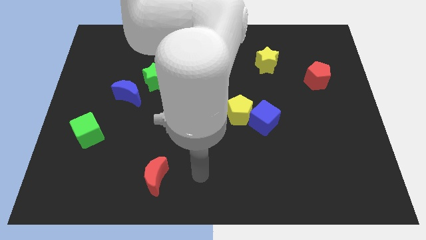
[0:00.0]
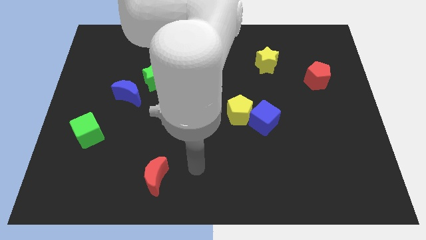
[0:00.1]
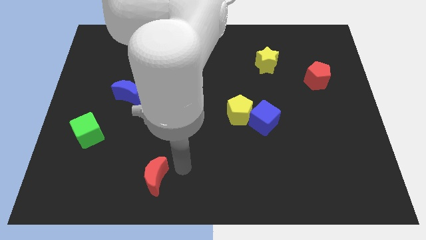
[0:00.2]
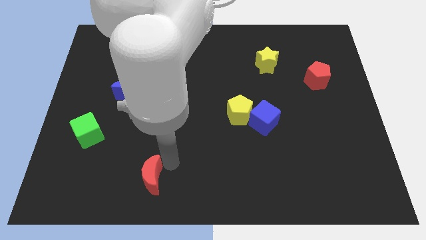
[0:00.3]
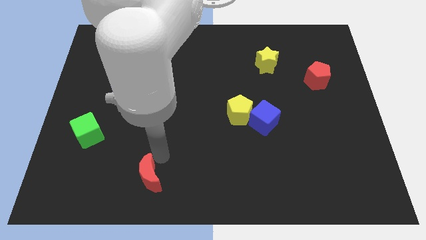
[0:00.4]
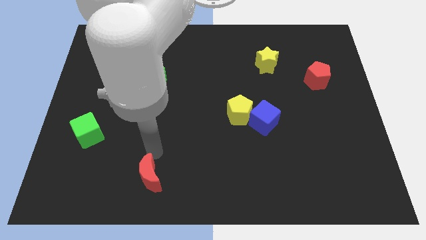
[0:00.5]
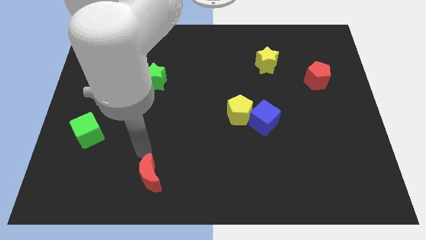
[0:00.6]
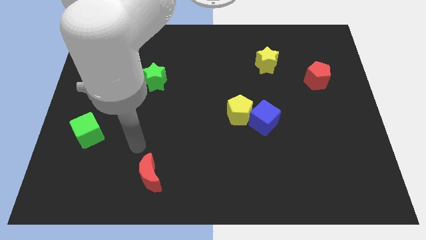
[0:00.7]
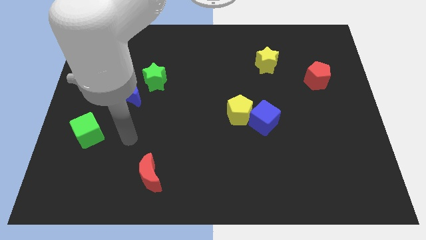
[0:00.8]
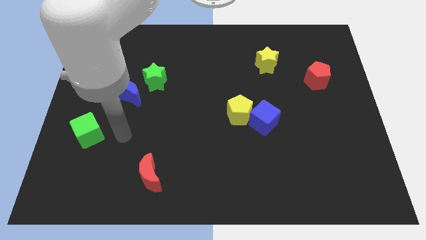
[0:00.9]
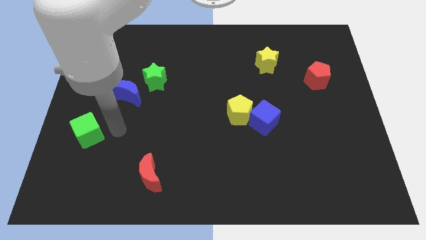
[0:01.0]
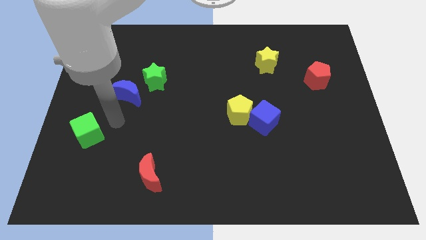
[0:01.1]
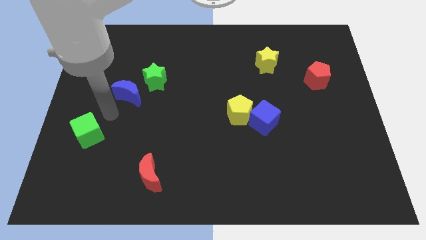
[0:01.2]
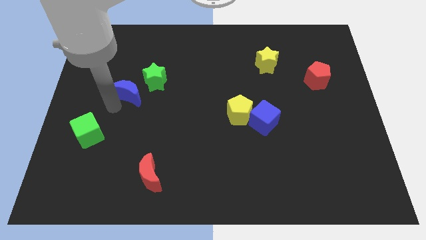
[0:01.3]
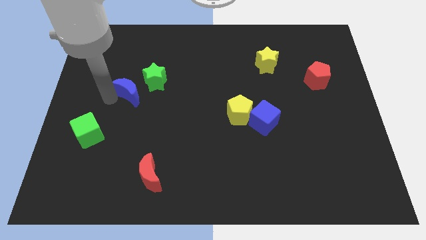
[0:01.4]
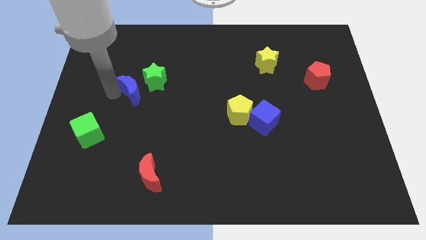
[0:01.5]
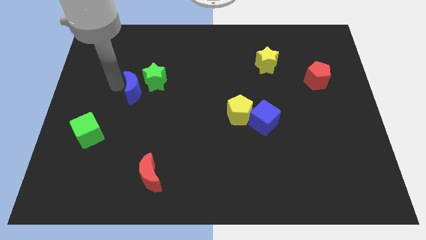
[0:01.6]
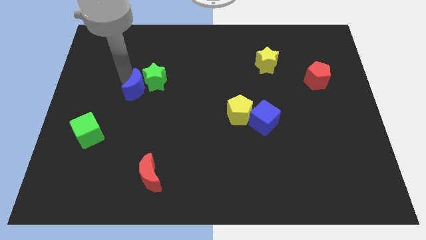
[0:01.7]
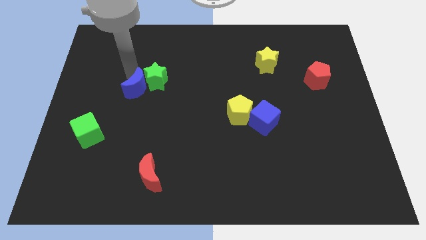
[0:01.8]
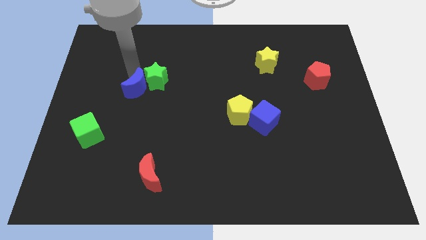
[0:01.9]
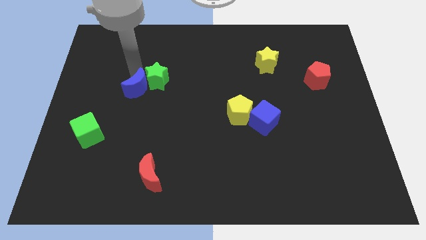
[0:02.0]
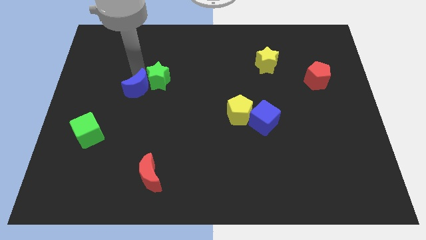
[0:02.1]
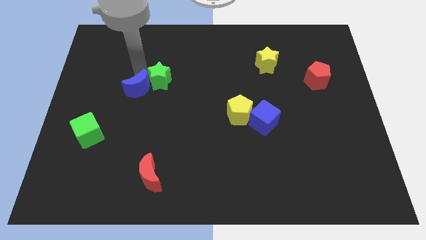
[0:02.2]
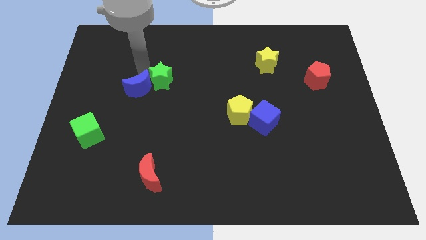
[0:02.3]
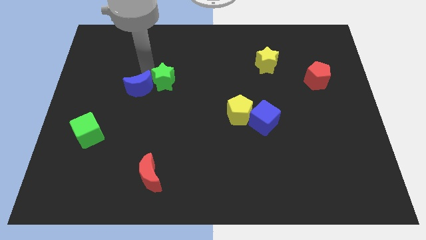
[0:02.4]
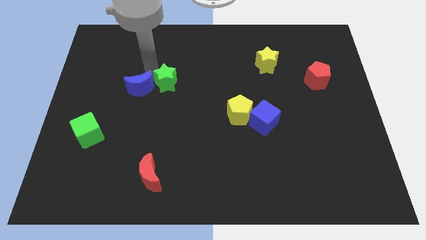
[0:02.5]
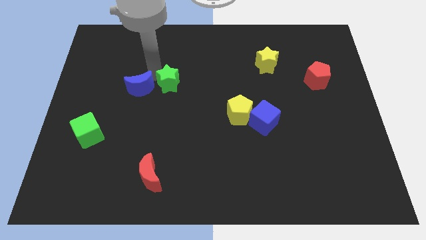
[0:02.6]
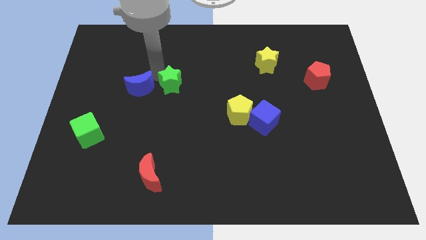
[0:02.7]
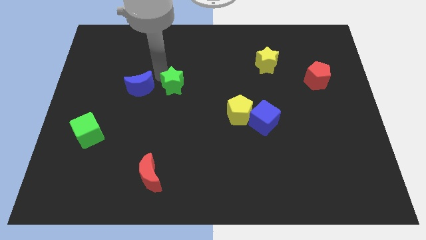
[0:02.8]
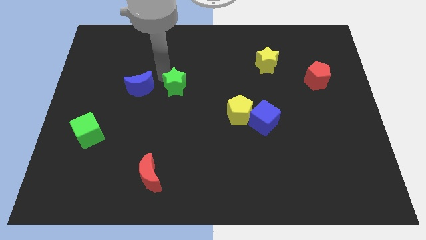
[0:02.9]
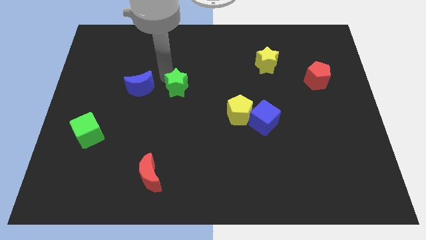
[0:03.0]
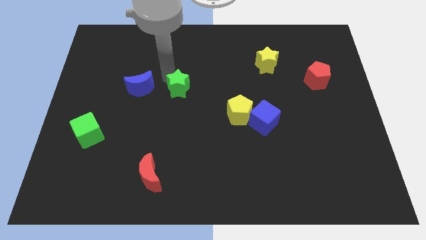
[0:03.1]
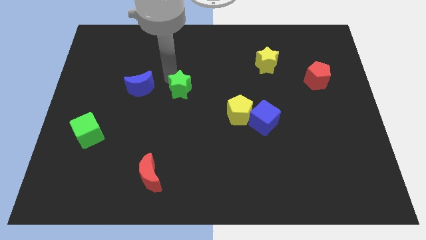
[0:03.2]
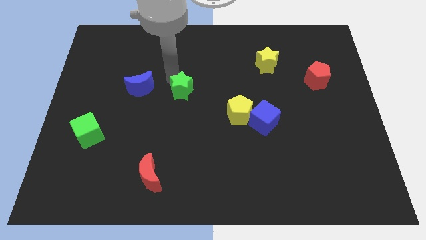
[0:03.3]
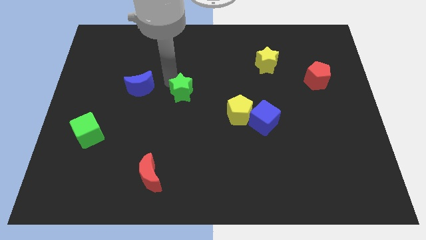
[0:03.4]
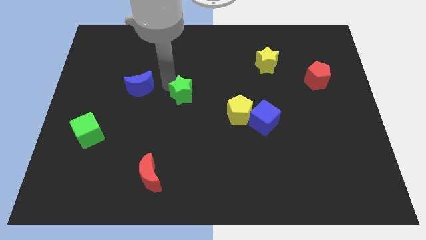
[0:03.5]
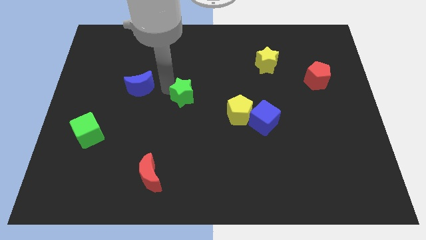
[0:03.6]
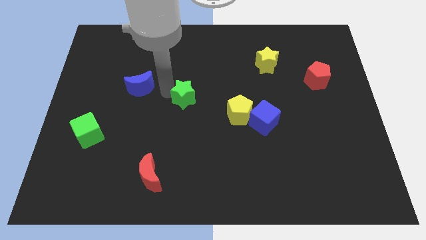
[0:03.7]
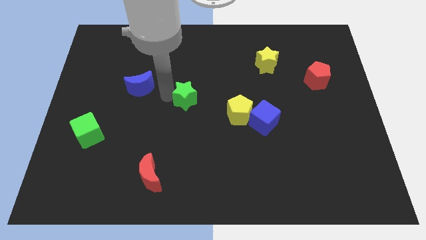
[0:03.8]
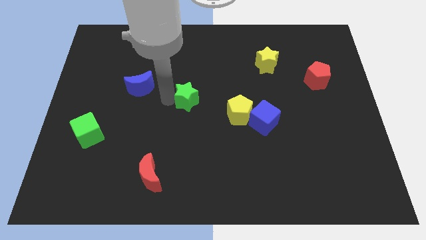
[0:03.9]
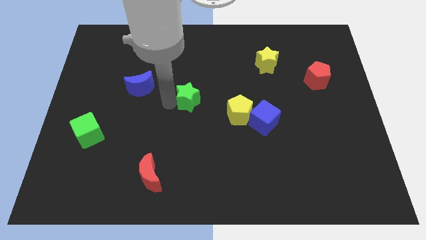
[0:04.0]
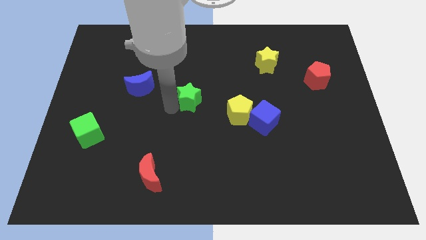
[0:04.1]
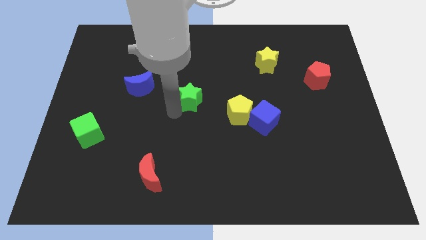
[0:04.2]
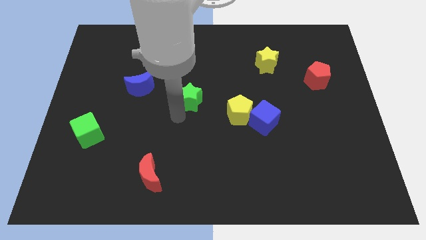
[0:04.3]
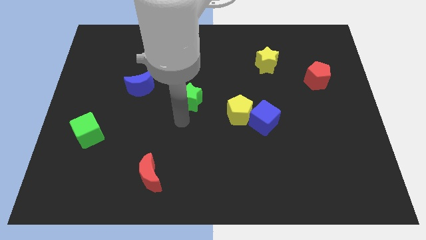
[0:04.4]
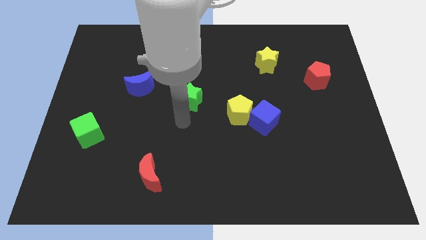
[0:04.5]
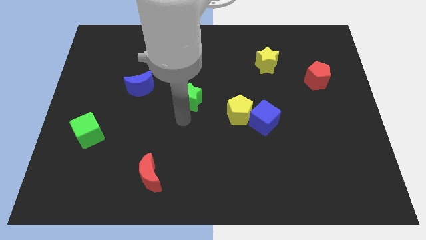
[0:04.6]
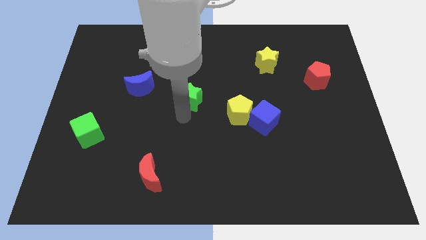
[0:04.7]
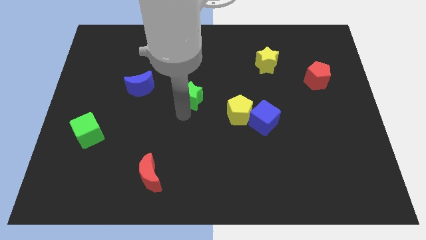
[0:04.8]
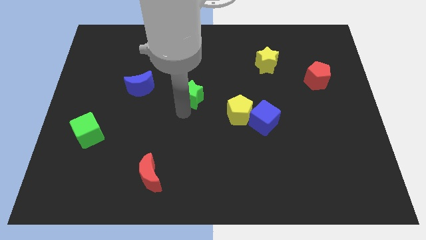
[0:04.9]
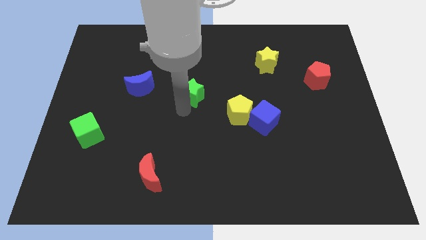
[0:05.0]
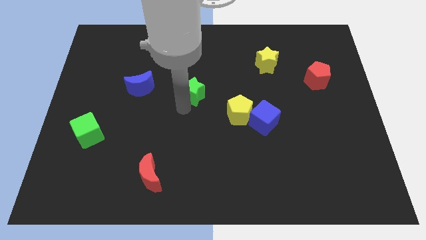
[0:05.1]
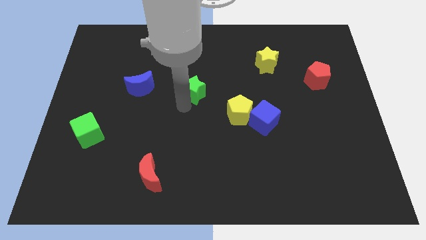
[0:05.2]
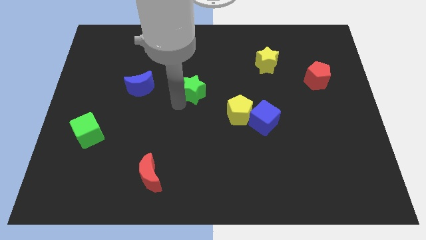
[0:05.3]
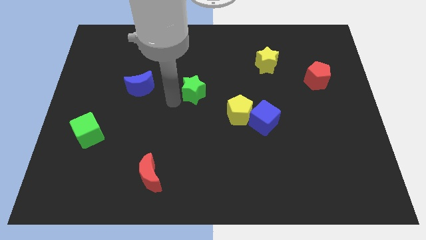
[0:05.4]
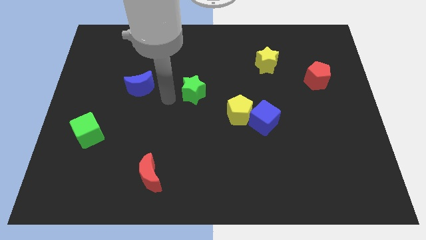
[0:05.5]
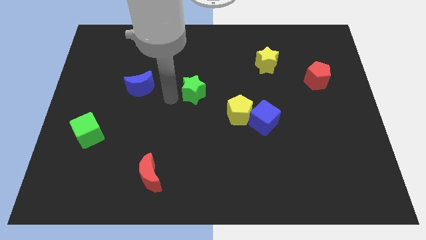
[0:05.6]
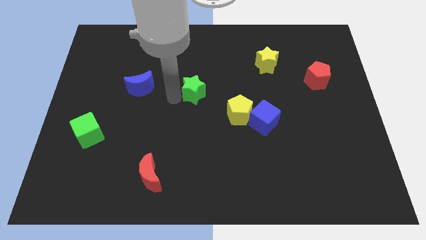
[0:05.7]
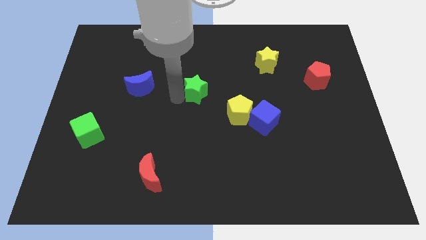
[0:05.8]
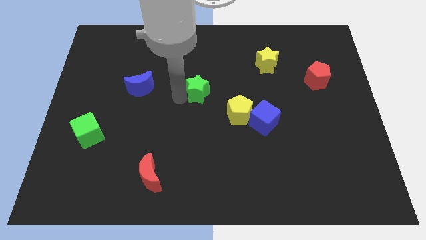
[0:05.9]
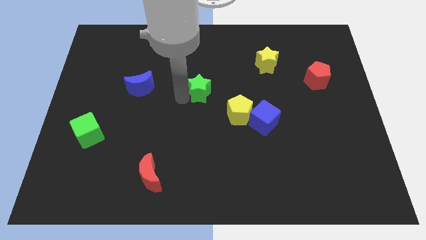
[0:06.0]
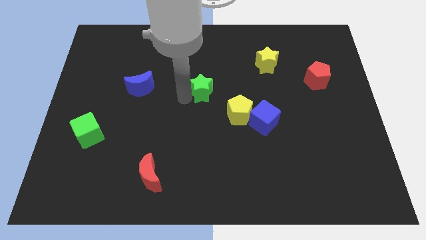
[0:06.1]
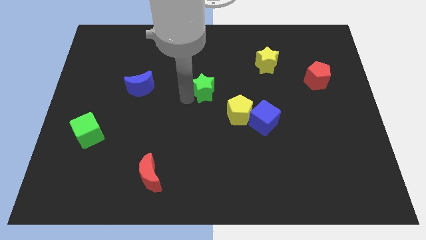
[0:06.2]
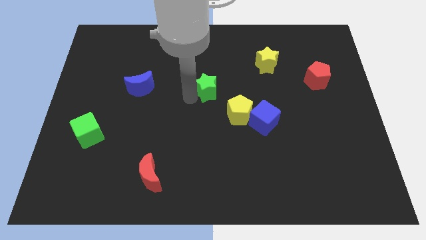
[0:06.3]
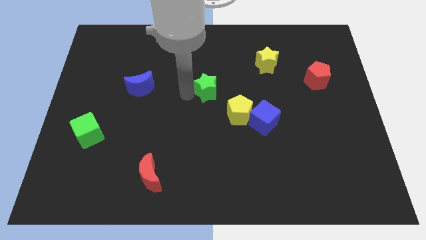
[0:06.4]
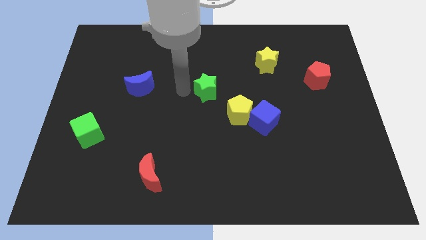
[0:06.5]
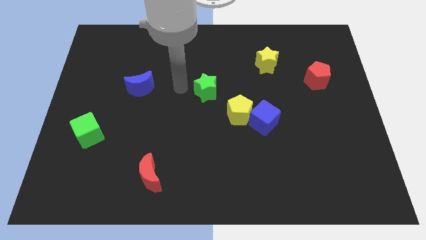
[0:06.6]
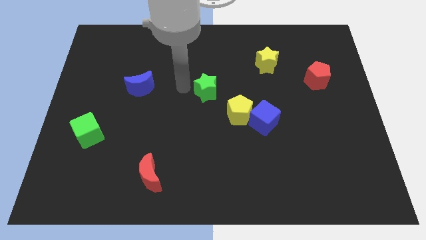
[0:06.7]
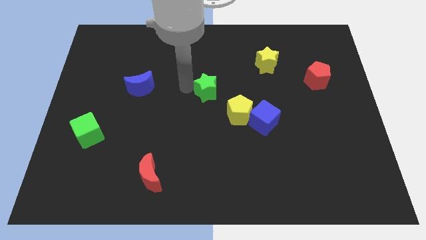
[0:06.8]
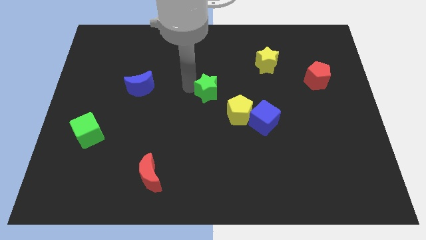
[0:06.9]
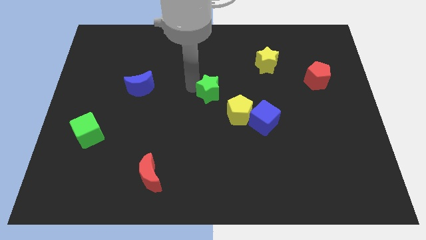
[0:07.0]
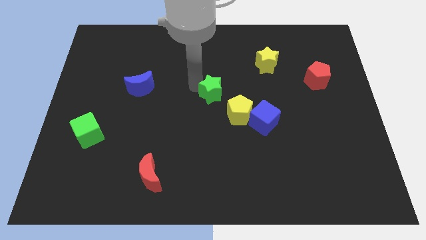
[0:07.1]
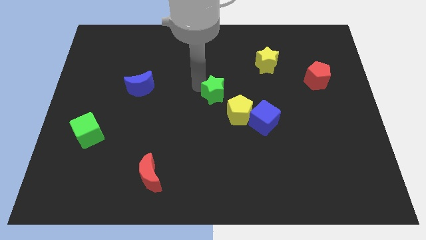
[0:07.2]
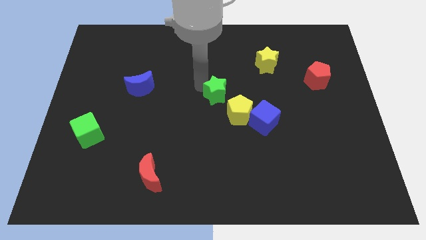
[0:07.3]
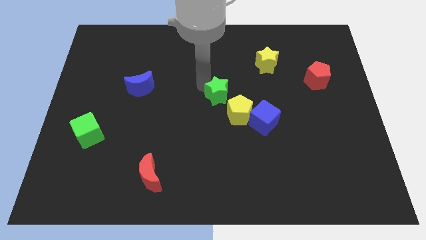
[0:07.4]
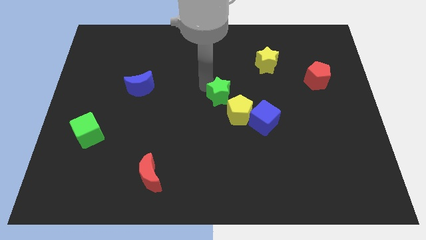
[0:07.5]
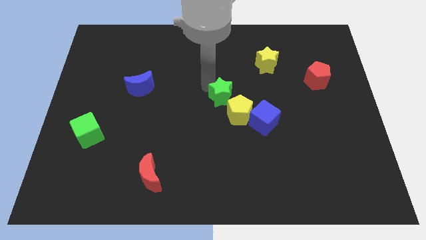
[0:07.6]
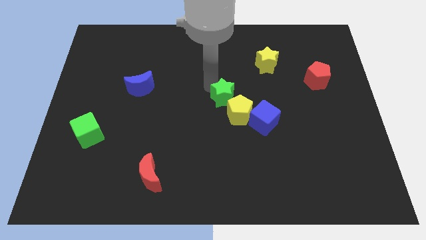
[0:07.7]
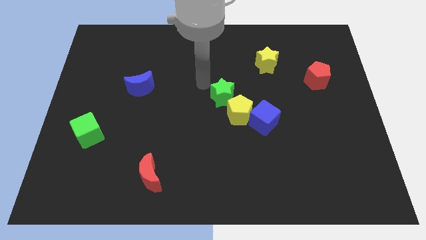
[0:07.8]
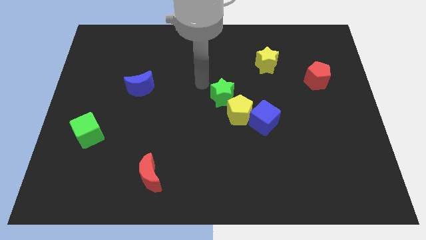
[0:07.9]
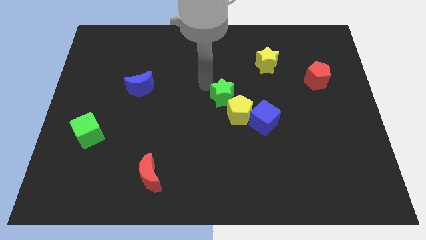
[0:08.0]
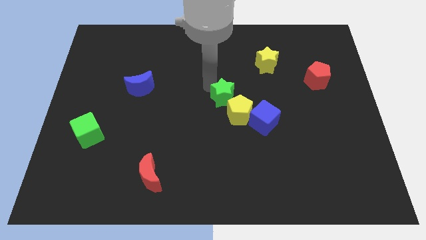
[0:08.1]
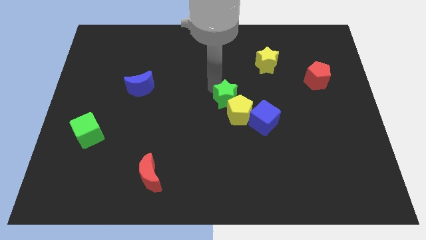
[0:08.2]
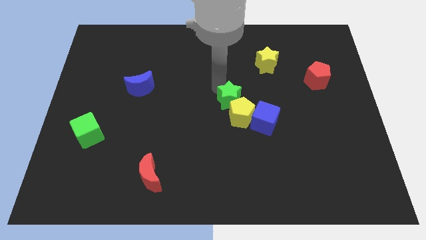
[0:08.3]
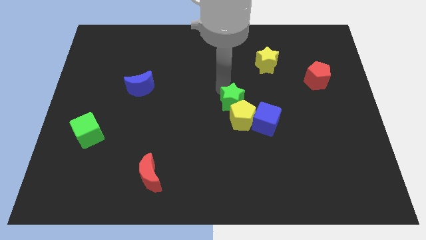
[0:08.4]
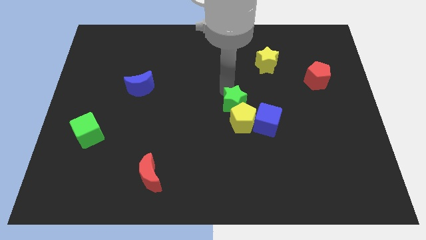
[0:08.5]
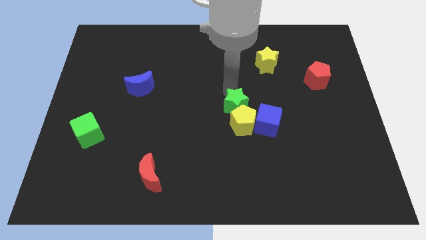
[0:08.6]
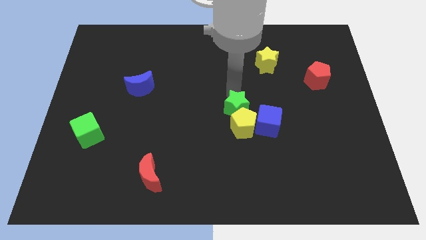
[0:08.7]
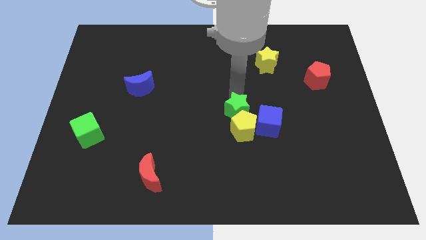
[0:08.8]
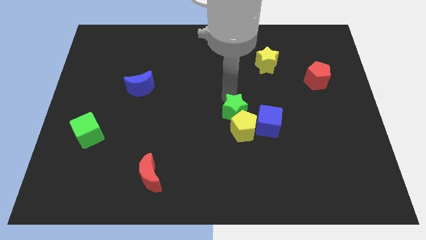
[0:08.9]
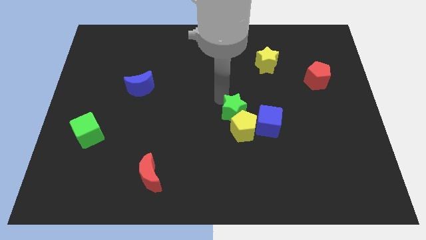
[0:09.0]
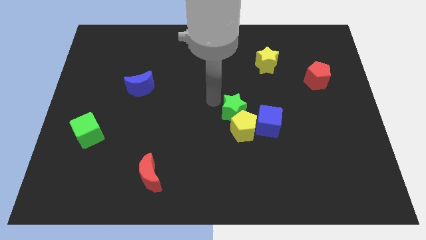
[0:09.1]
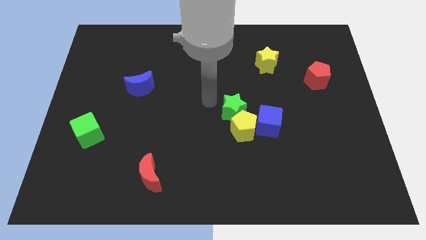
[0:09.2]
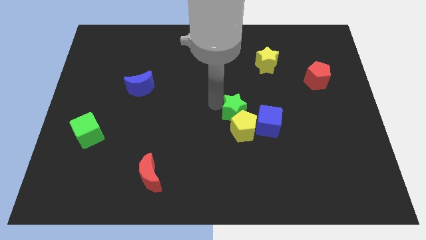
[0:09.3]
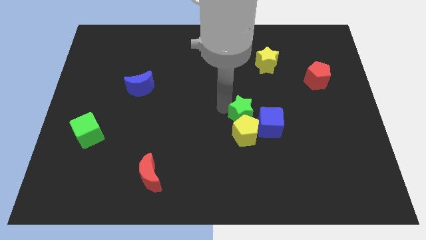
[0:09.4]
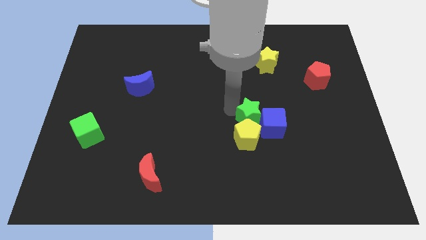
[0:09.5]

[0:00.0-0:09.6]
put the green star close to the blue cube
